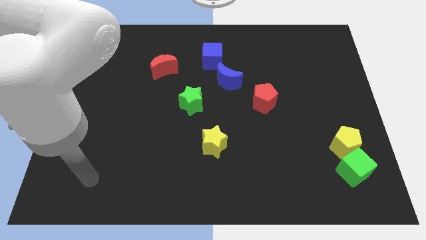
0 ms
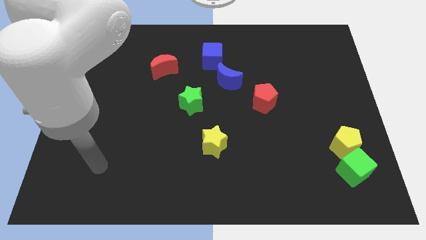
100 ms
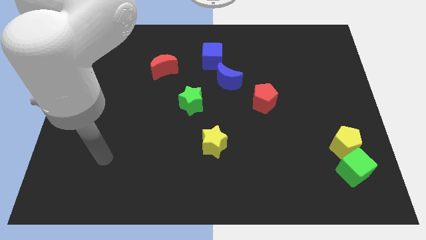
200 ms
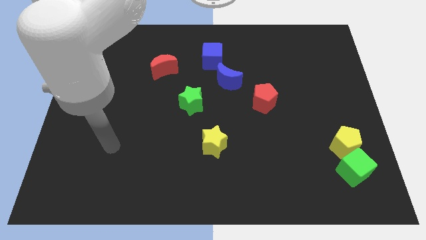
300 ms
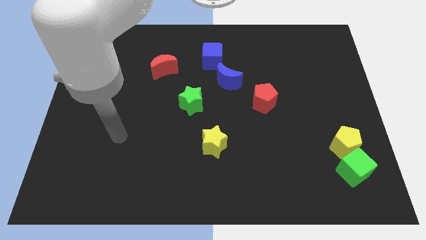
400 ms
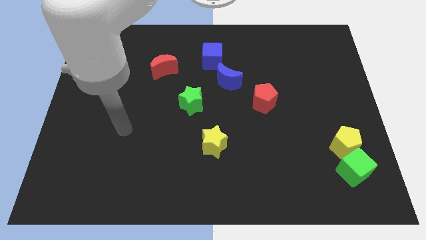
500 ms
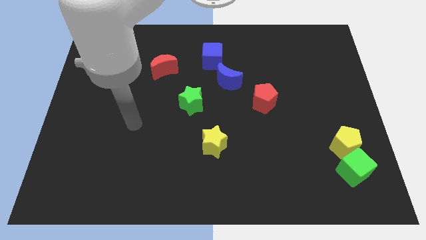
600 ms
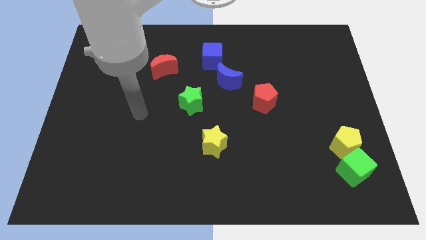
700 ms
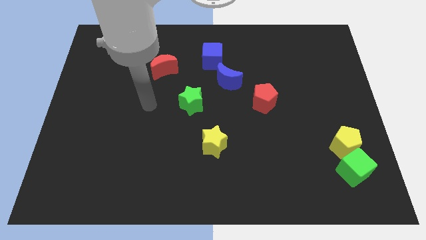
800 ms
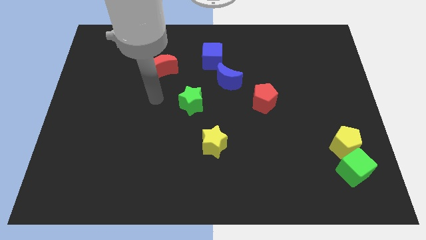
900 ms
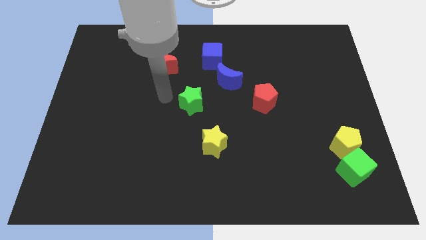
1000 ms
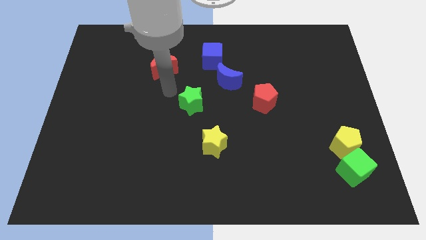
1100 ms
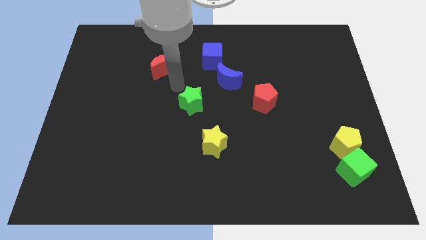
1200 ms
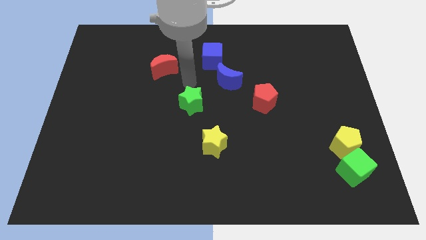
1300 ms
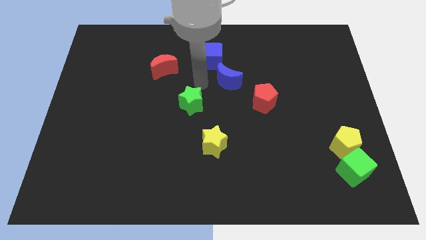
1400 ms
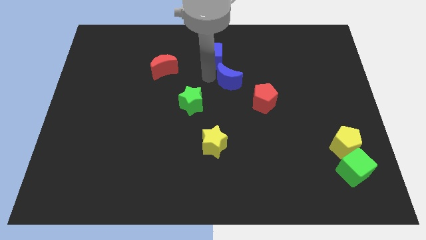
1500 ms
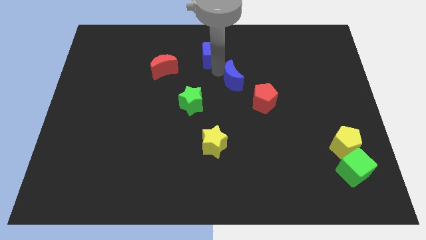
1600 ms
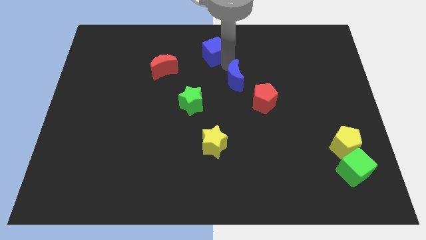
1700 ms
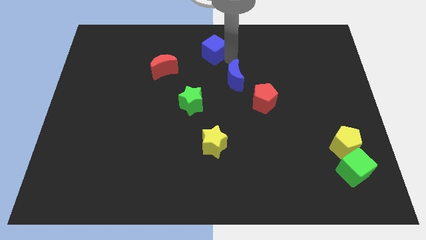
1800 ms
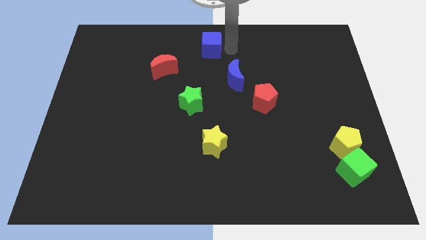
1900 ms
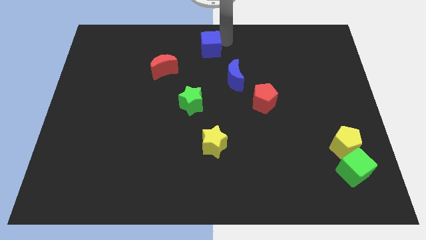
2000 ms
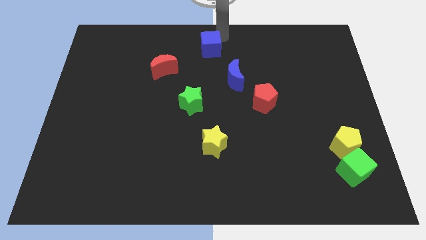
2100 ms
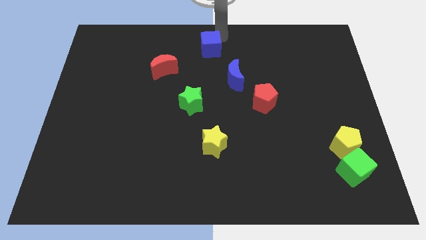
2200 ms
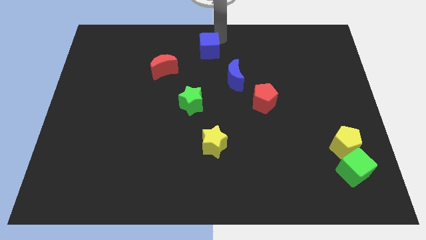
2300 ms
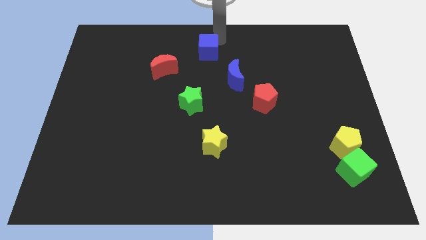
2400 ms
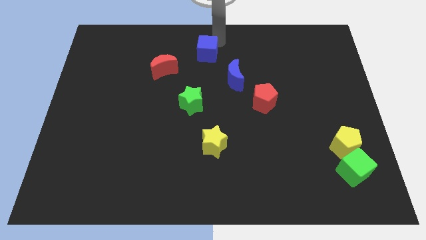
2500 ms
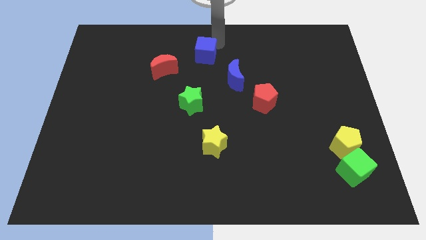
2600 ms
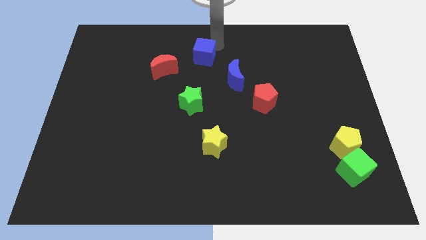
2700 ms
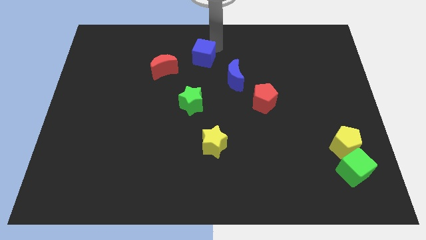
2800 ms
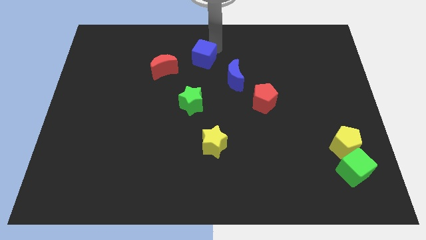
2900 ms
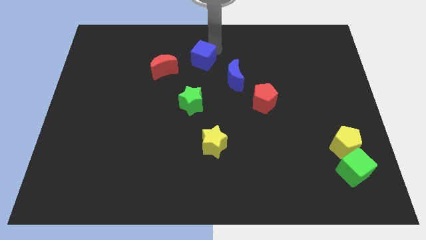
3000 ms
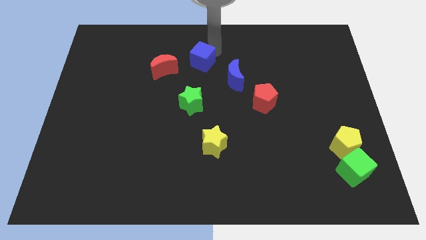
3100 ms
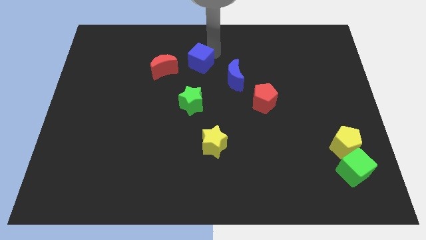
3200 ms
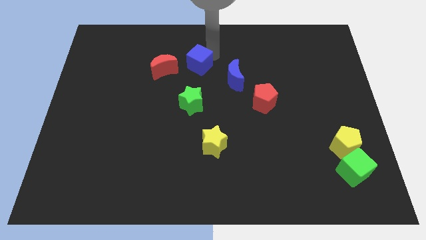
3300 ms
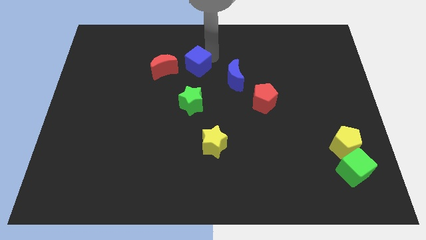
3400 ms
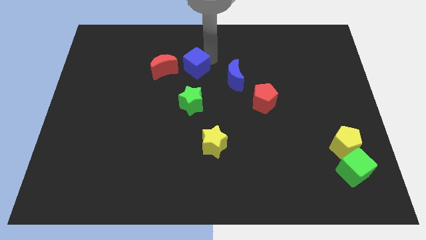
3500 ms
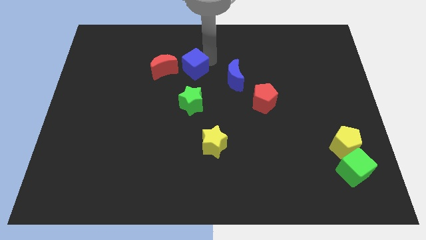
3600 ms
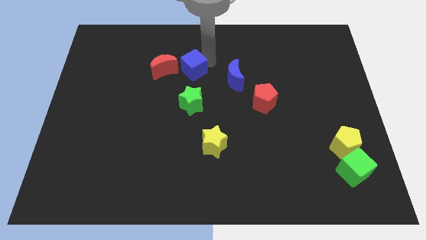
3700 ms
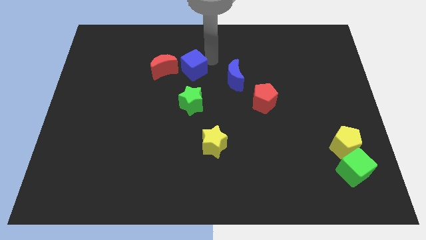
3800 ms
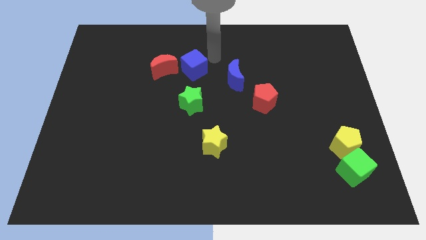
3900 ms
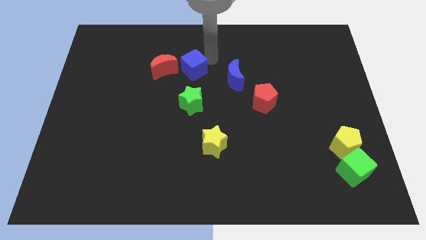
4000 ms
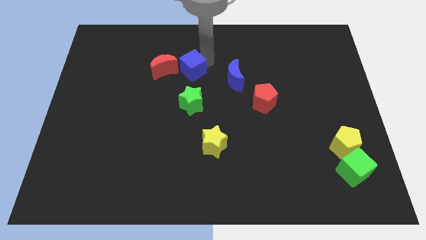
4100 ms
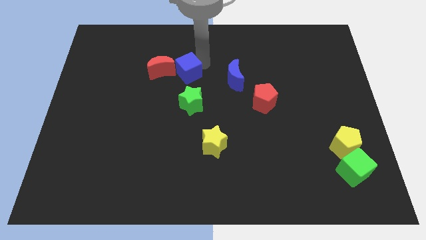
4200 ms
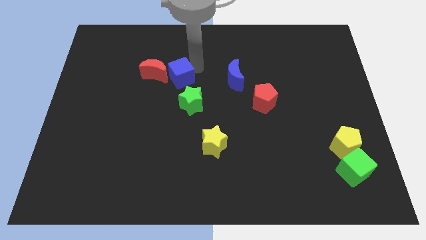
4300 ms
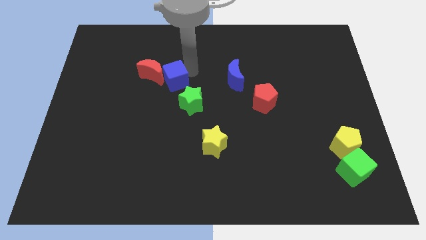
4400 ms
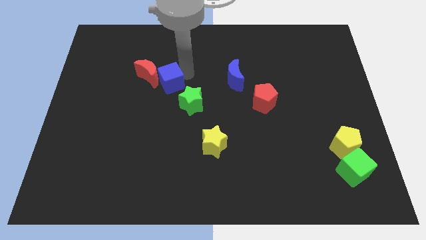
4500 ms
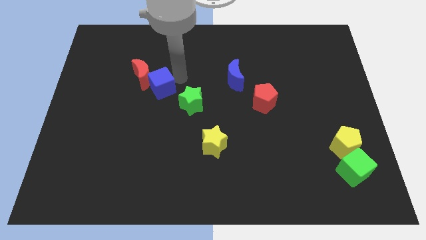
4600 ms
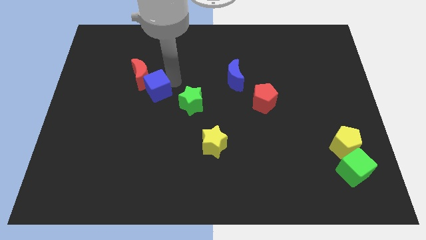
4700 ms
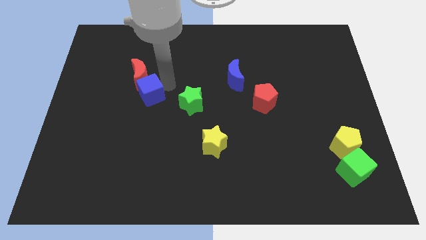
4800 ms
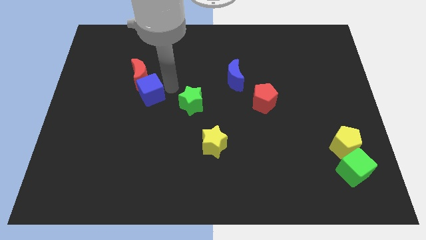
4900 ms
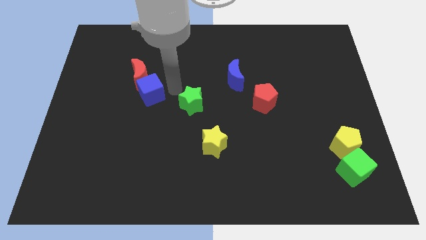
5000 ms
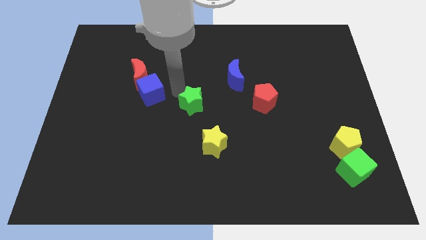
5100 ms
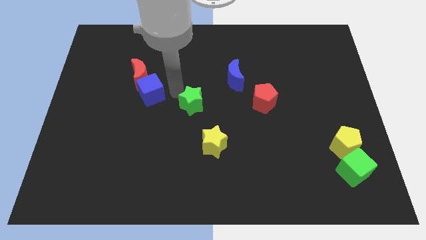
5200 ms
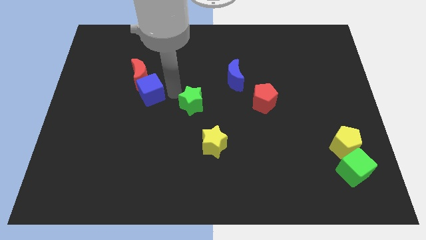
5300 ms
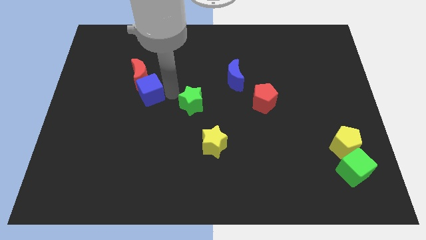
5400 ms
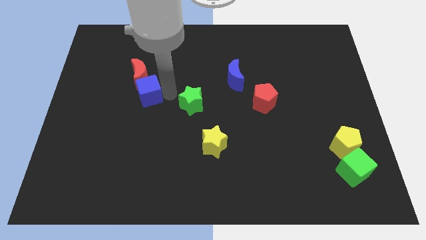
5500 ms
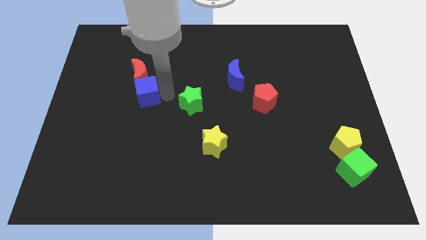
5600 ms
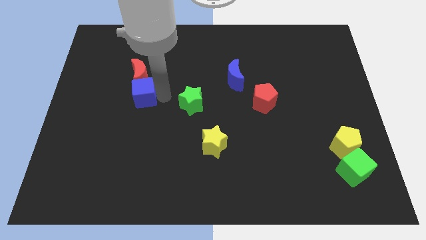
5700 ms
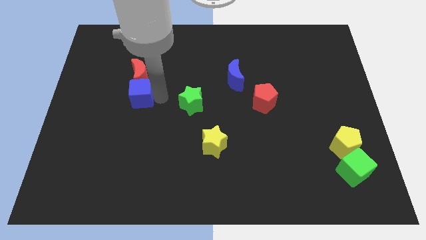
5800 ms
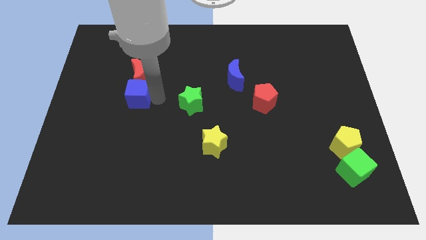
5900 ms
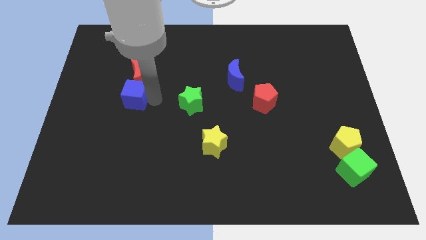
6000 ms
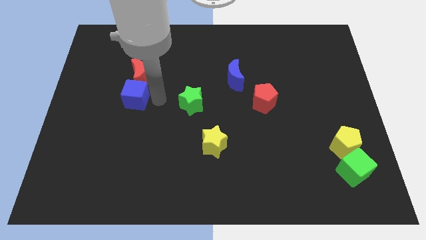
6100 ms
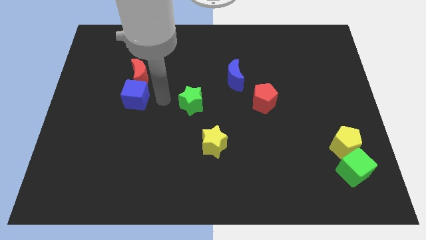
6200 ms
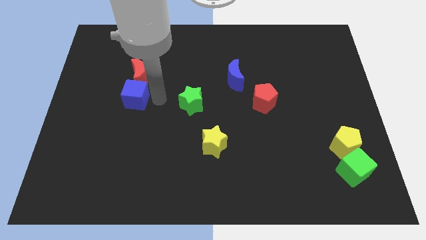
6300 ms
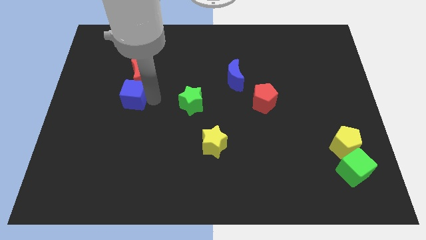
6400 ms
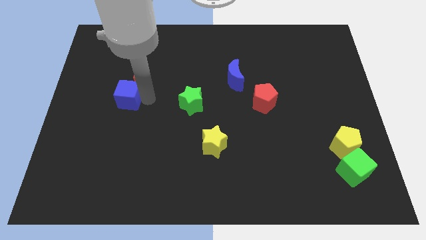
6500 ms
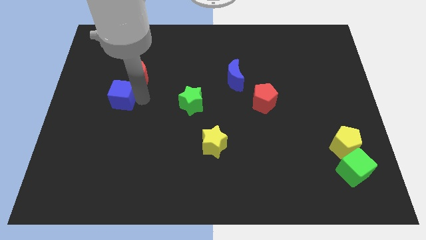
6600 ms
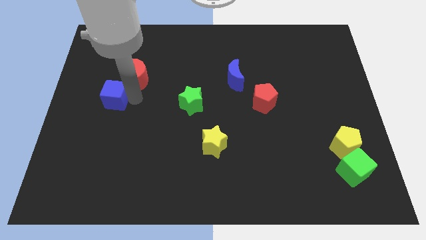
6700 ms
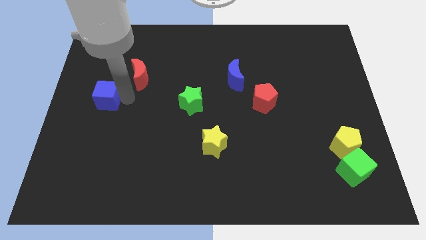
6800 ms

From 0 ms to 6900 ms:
push the blue cube to the left side
